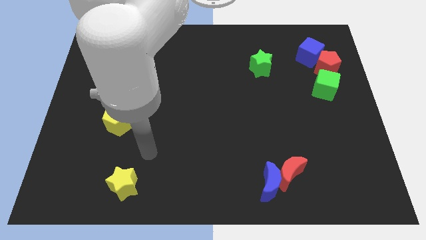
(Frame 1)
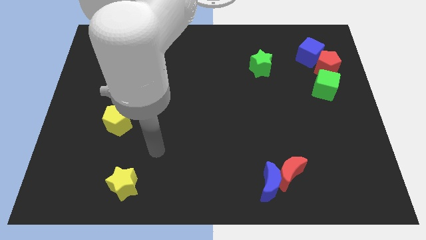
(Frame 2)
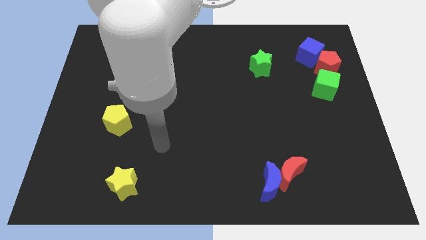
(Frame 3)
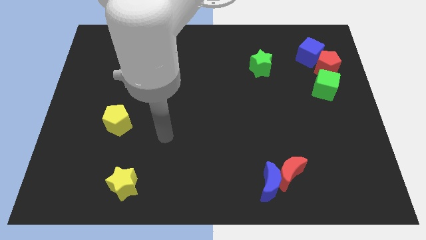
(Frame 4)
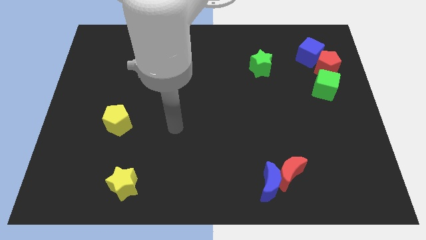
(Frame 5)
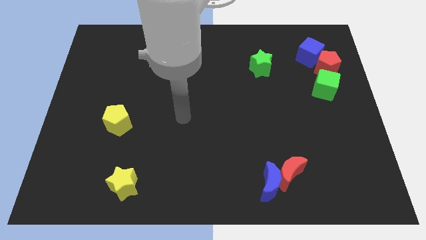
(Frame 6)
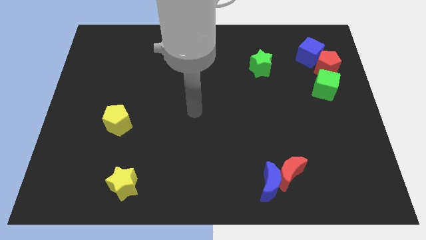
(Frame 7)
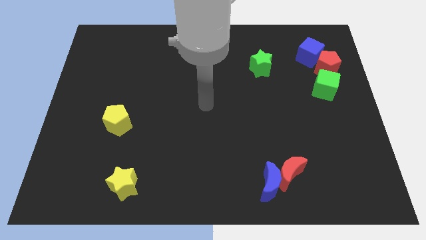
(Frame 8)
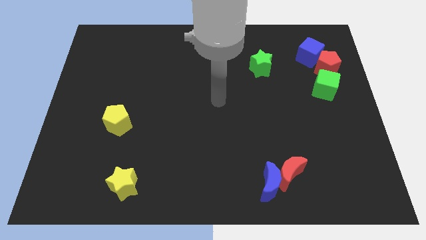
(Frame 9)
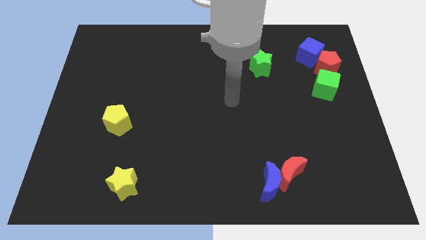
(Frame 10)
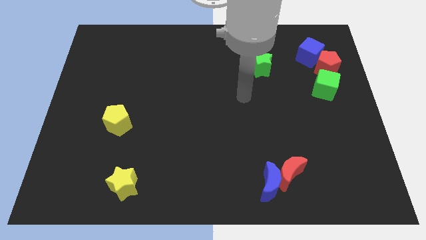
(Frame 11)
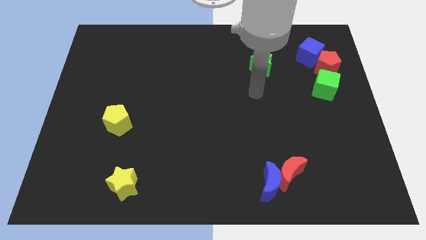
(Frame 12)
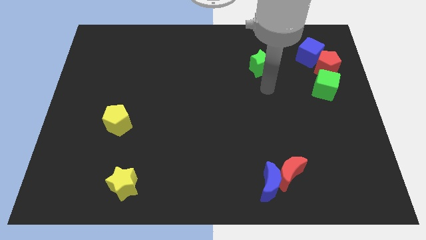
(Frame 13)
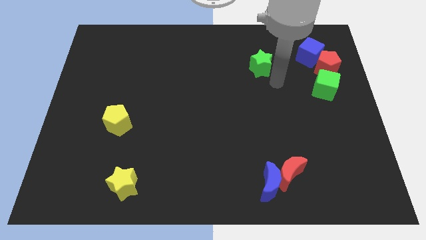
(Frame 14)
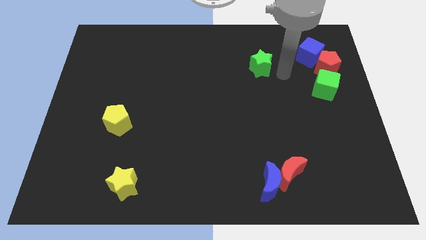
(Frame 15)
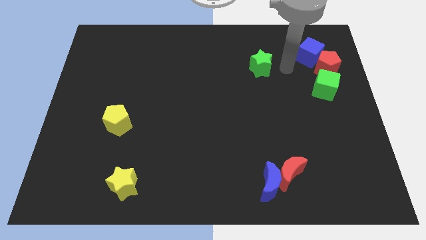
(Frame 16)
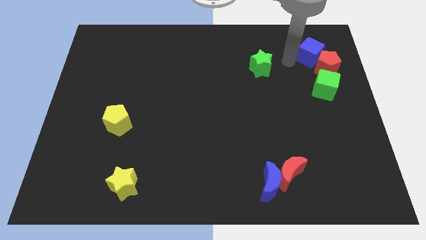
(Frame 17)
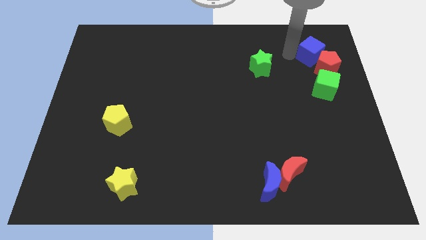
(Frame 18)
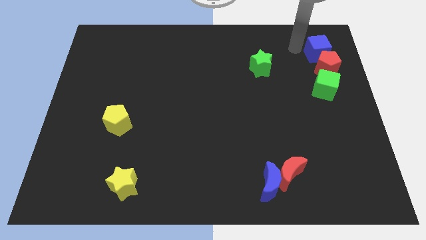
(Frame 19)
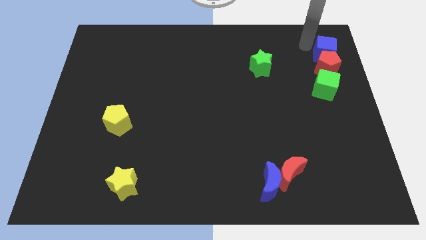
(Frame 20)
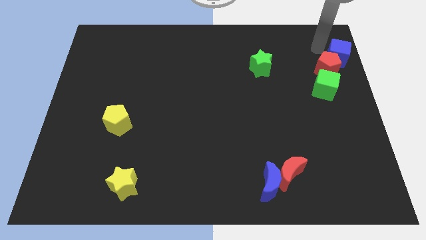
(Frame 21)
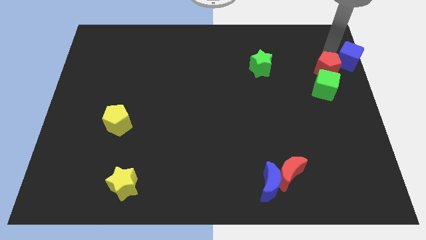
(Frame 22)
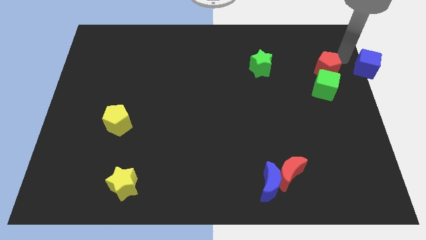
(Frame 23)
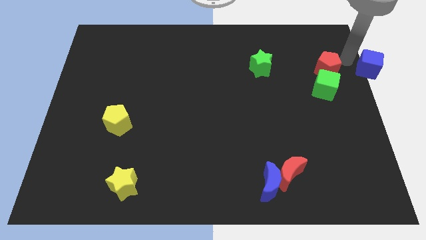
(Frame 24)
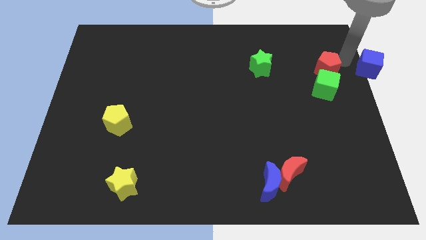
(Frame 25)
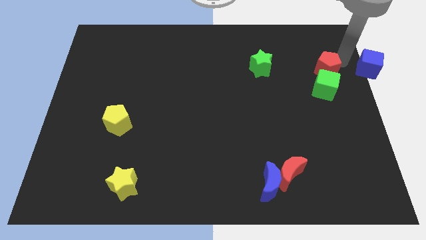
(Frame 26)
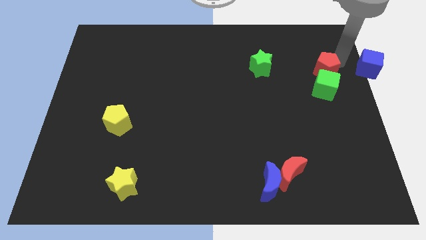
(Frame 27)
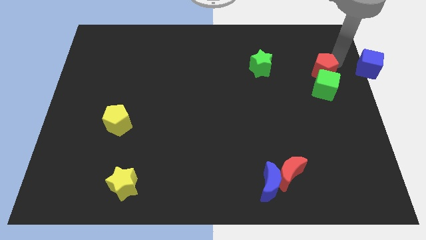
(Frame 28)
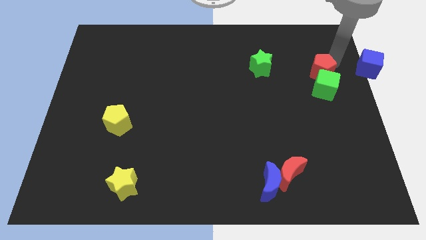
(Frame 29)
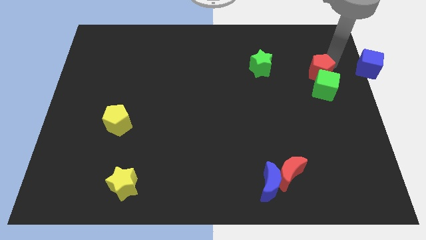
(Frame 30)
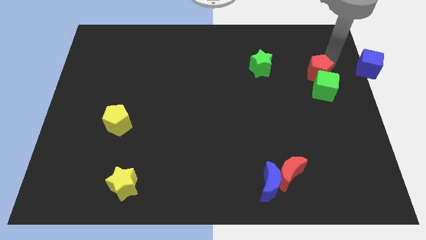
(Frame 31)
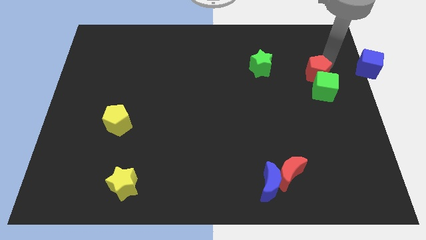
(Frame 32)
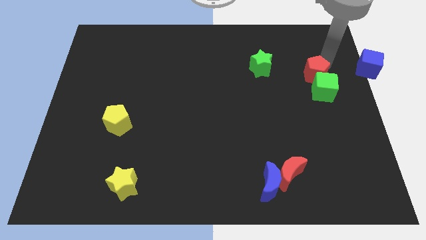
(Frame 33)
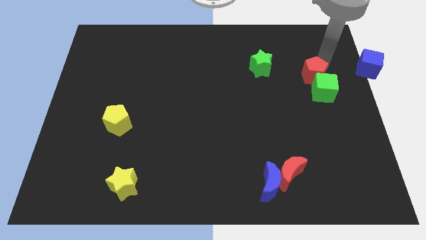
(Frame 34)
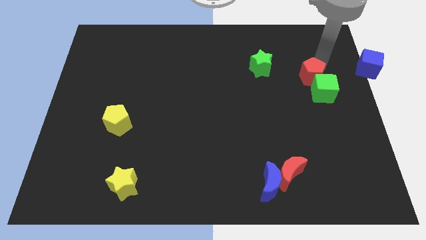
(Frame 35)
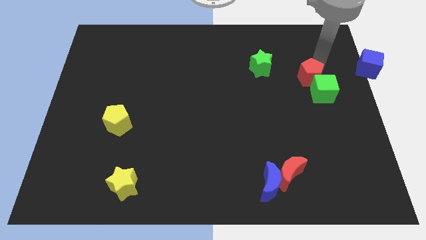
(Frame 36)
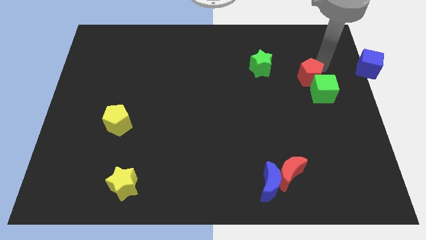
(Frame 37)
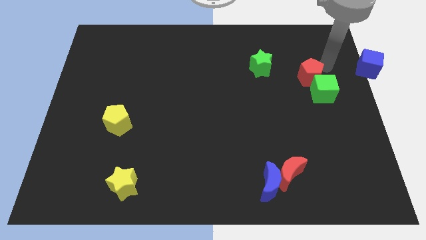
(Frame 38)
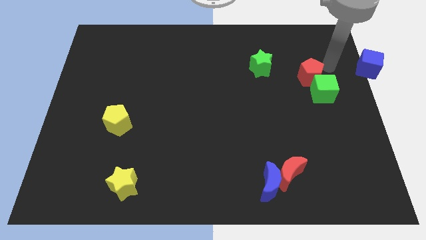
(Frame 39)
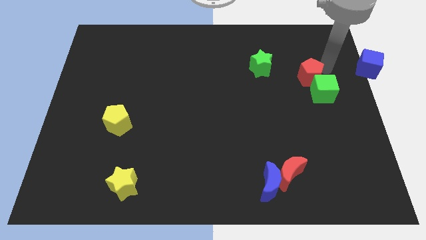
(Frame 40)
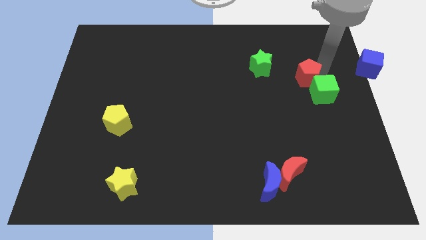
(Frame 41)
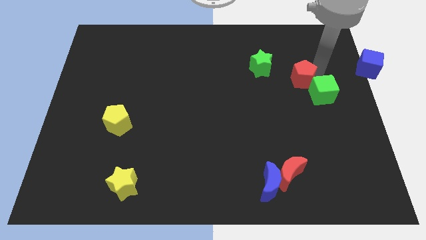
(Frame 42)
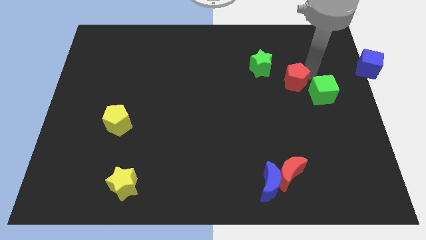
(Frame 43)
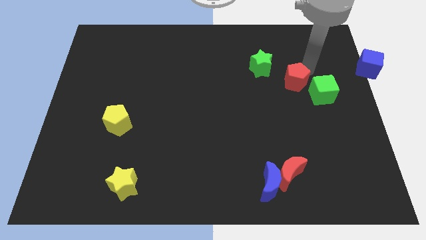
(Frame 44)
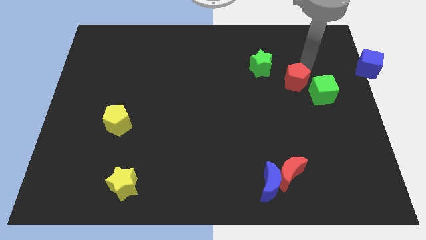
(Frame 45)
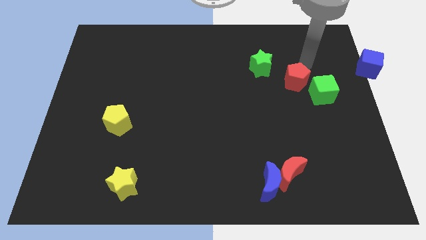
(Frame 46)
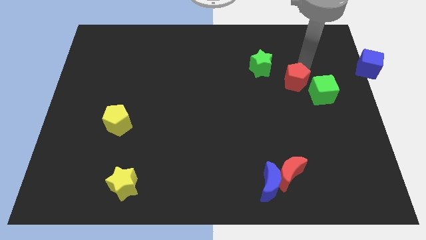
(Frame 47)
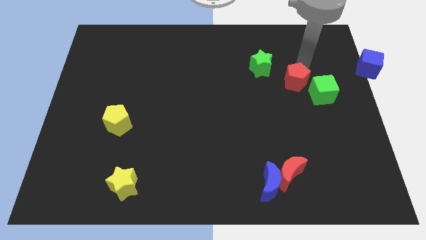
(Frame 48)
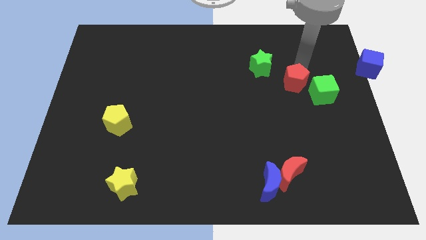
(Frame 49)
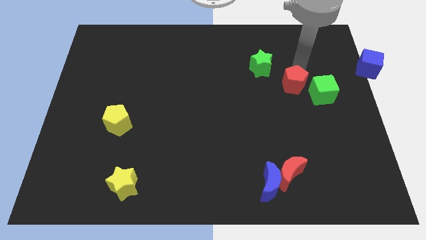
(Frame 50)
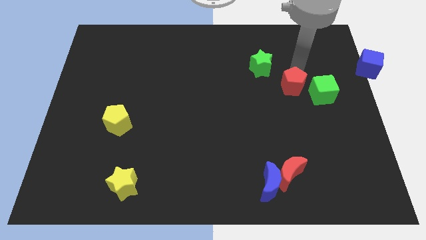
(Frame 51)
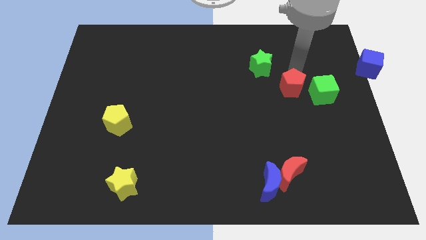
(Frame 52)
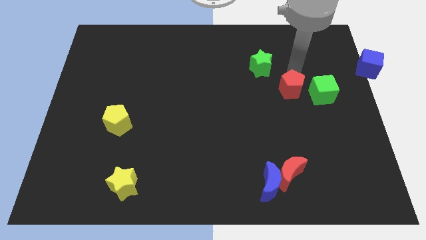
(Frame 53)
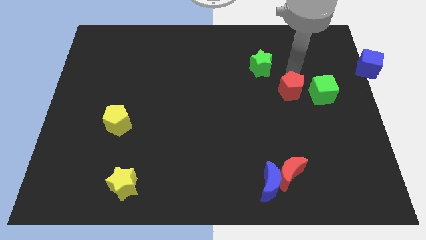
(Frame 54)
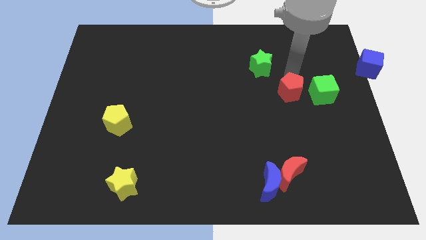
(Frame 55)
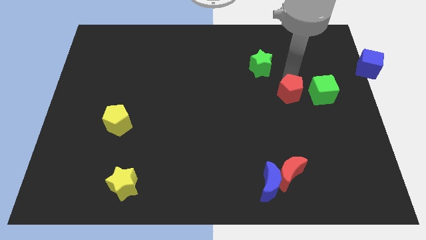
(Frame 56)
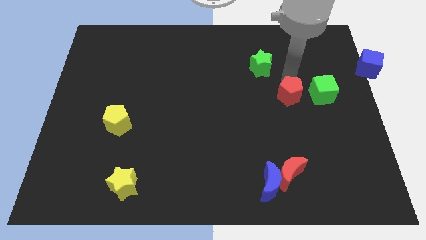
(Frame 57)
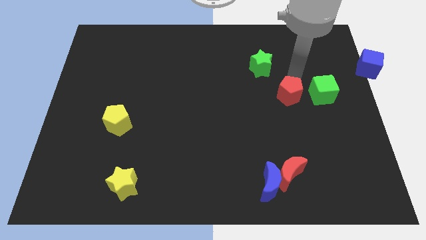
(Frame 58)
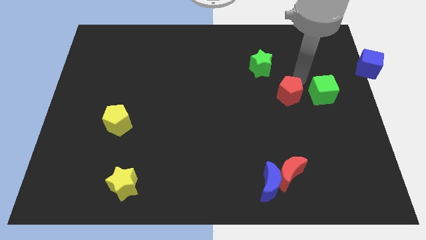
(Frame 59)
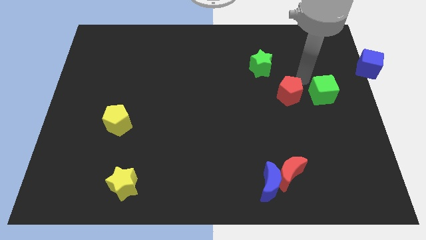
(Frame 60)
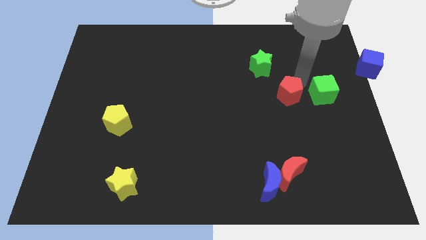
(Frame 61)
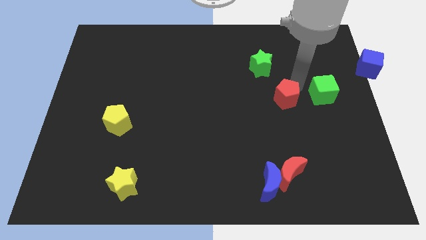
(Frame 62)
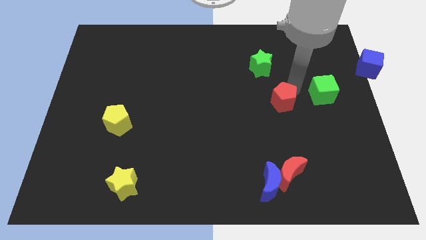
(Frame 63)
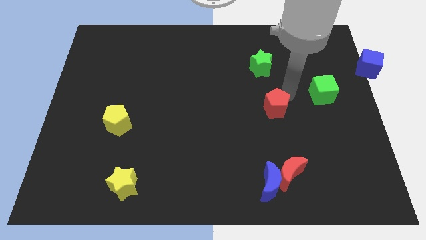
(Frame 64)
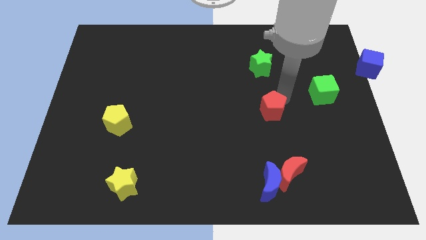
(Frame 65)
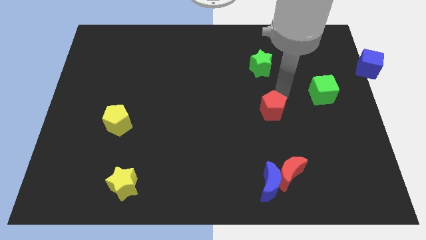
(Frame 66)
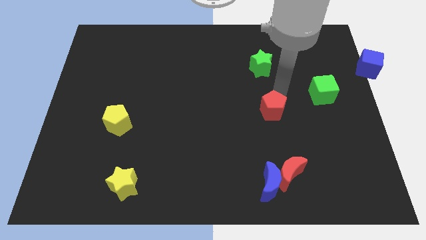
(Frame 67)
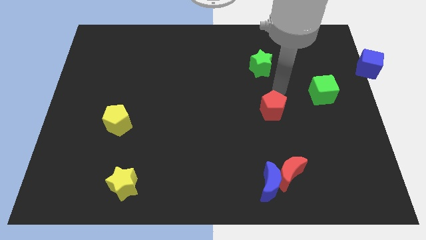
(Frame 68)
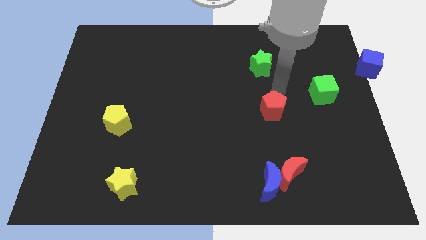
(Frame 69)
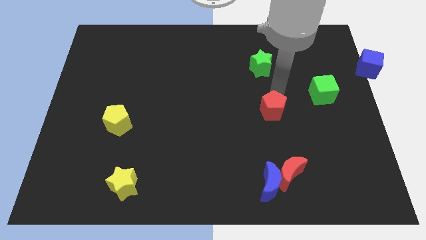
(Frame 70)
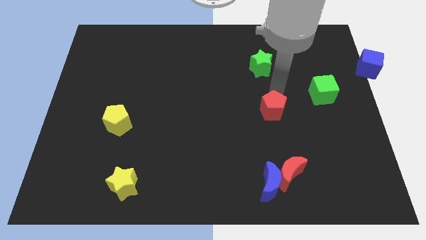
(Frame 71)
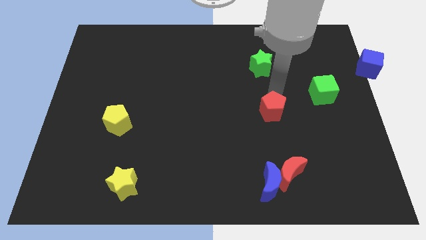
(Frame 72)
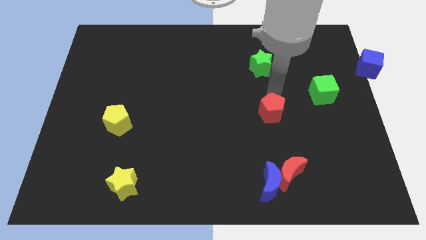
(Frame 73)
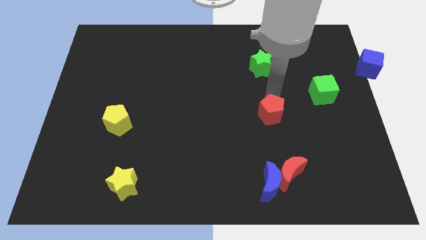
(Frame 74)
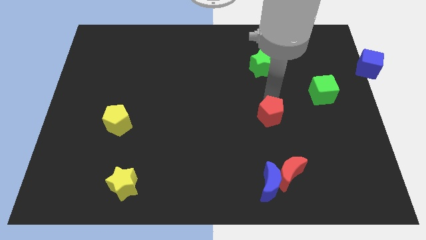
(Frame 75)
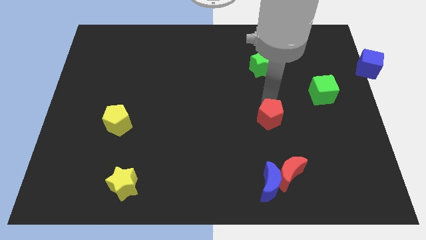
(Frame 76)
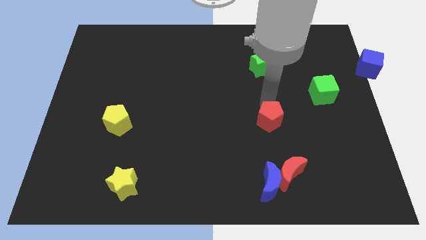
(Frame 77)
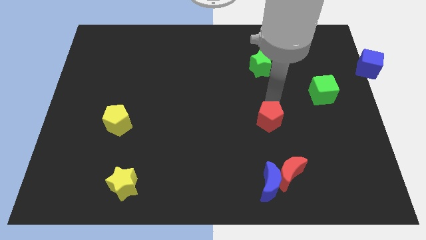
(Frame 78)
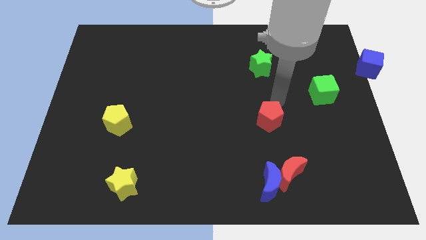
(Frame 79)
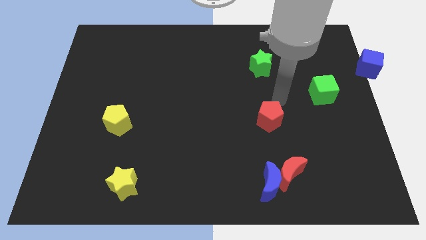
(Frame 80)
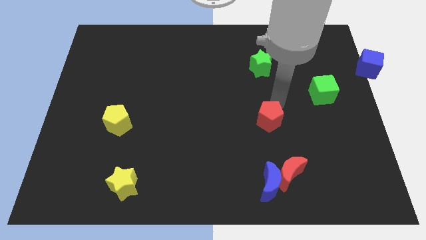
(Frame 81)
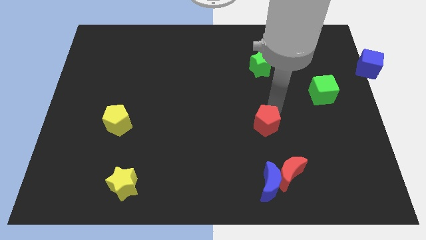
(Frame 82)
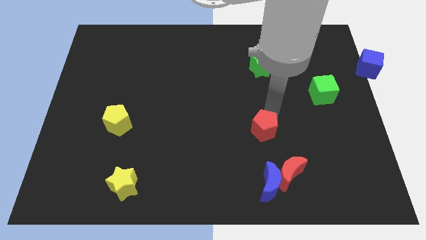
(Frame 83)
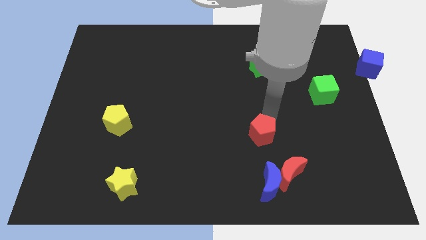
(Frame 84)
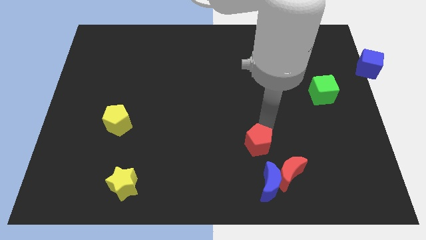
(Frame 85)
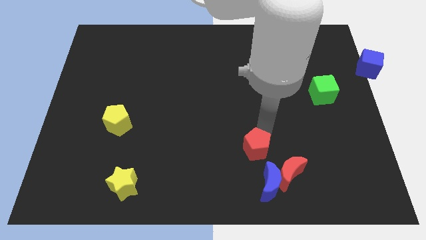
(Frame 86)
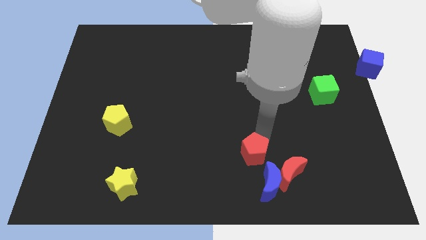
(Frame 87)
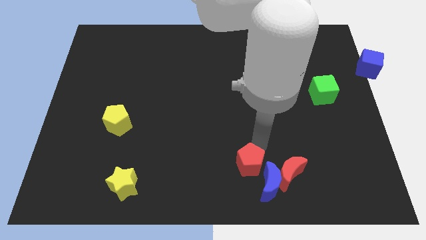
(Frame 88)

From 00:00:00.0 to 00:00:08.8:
slide the red pentagon to the bottom side
